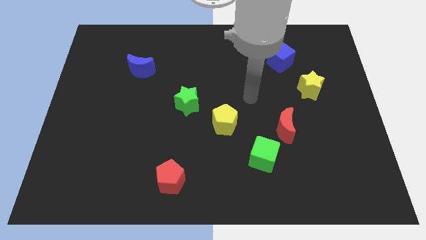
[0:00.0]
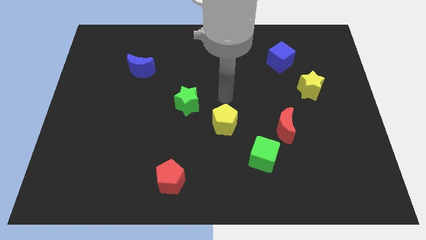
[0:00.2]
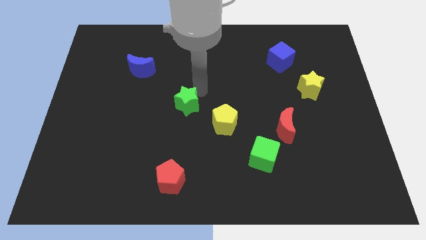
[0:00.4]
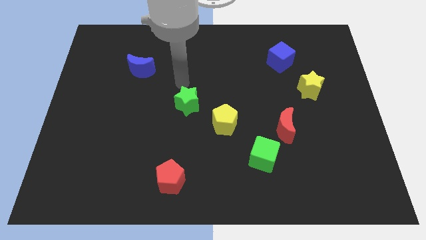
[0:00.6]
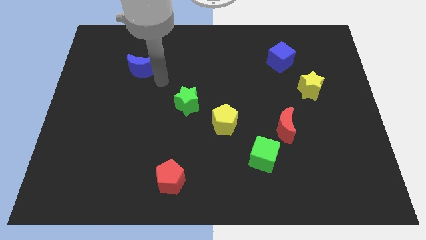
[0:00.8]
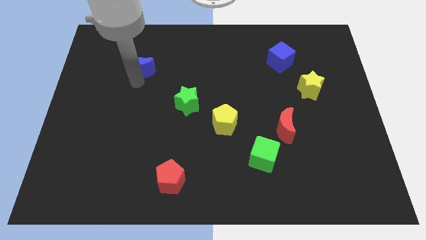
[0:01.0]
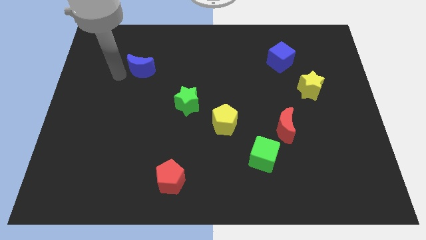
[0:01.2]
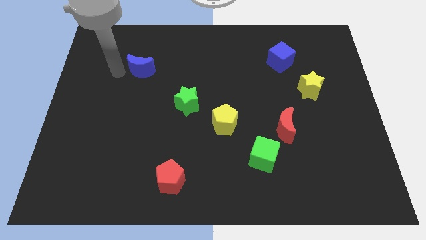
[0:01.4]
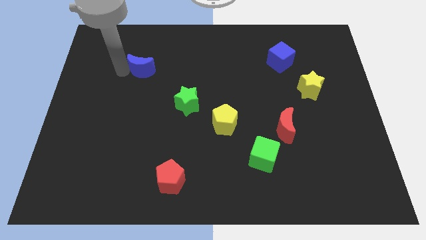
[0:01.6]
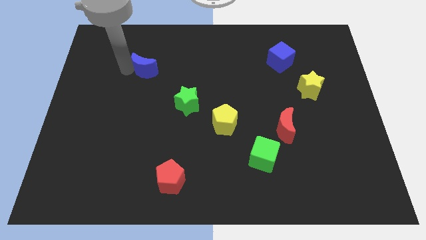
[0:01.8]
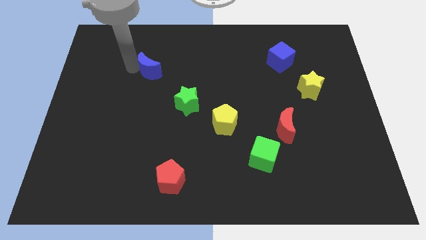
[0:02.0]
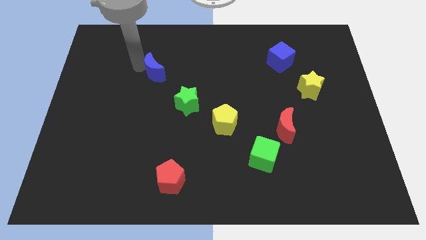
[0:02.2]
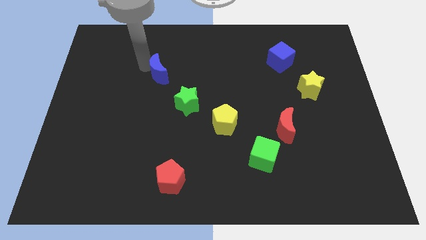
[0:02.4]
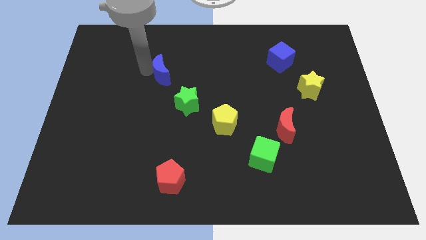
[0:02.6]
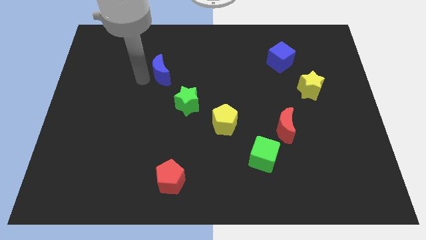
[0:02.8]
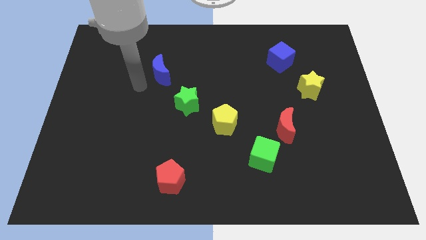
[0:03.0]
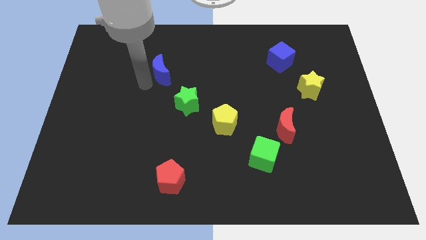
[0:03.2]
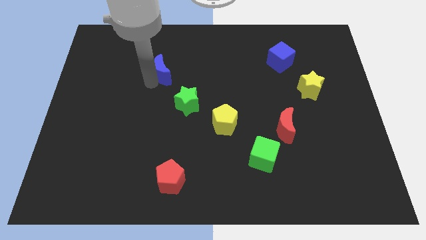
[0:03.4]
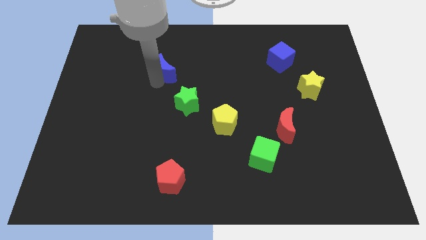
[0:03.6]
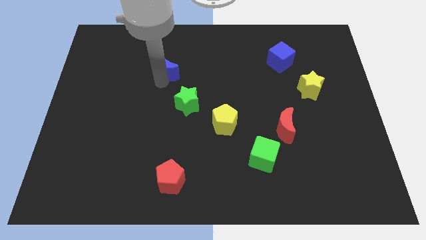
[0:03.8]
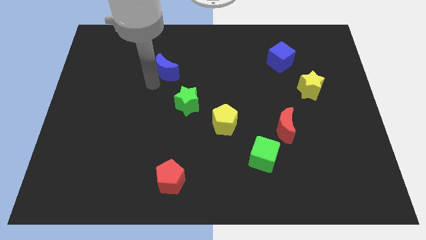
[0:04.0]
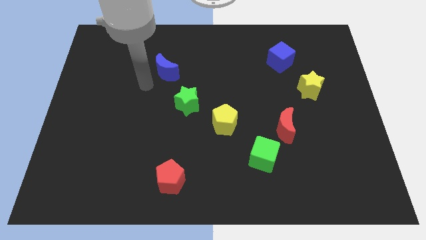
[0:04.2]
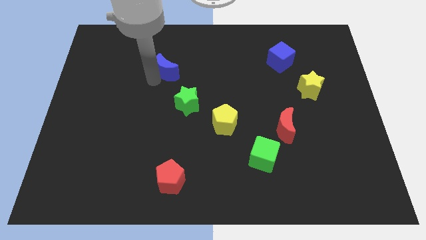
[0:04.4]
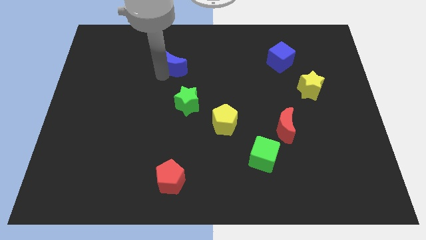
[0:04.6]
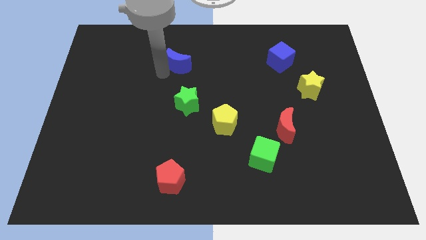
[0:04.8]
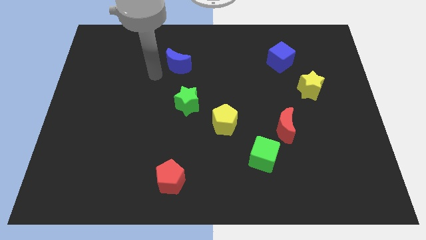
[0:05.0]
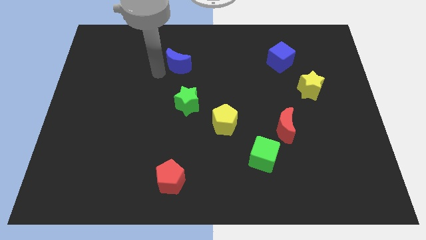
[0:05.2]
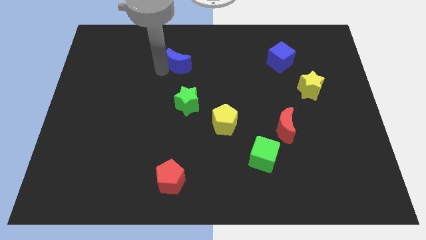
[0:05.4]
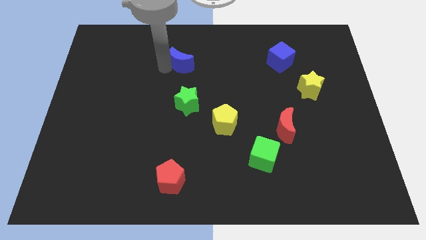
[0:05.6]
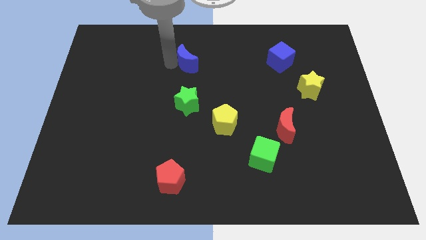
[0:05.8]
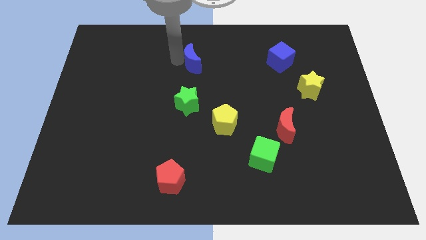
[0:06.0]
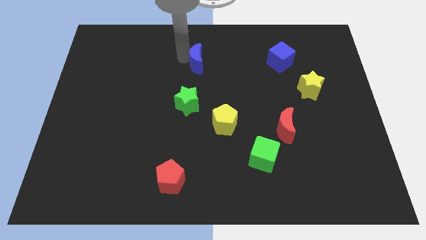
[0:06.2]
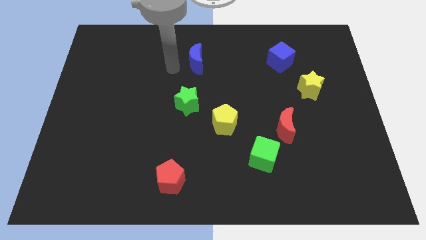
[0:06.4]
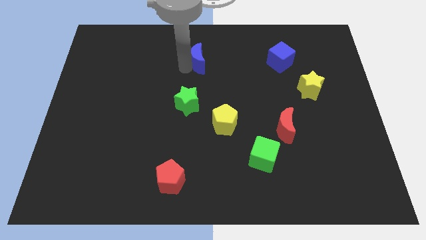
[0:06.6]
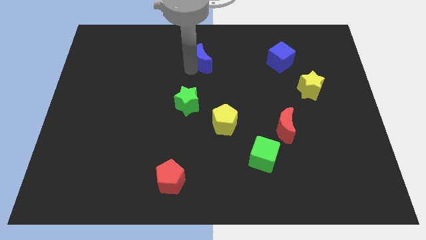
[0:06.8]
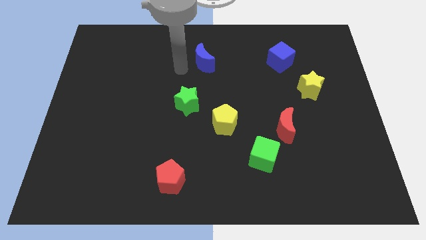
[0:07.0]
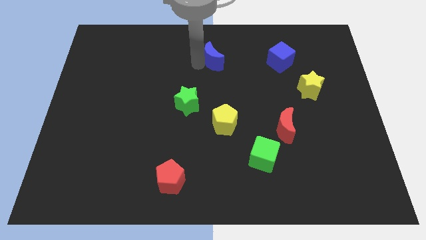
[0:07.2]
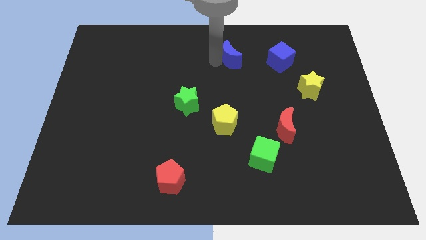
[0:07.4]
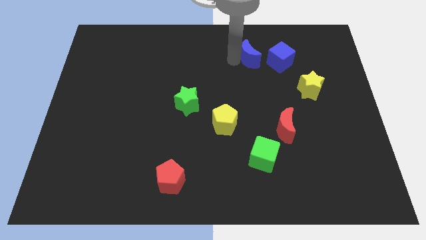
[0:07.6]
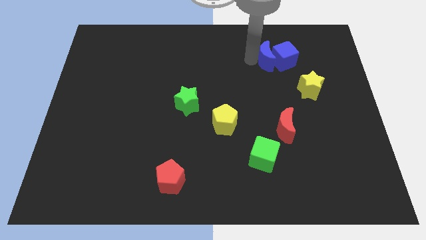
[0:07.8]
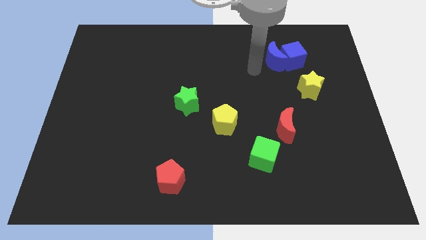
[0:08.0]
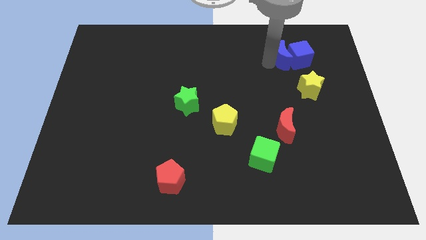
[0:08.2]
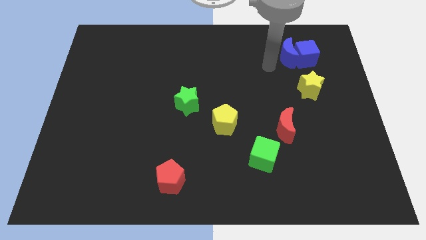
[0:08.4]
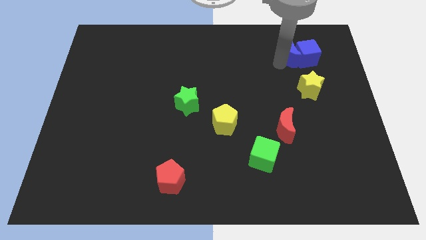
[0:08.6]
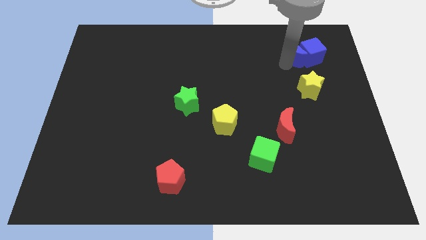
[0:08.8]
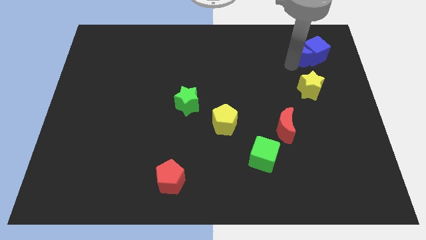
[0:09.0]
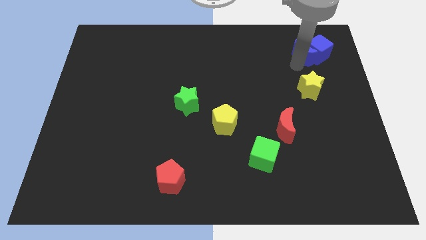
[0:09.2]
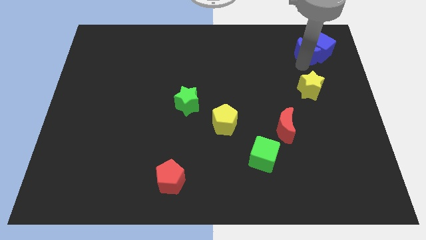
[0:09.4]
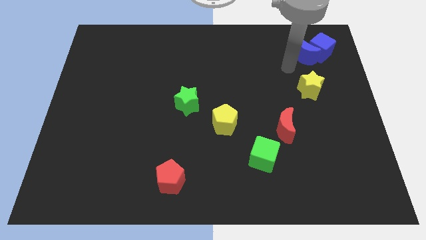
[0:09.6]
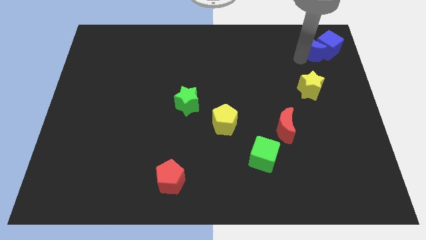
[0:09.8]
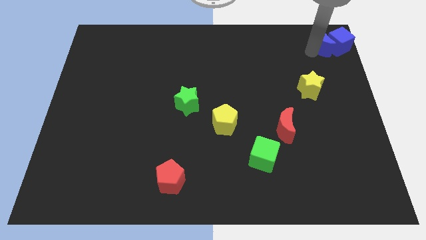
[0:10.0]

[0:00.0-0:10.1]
move the blue moon to the top right
